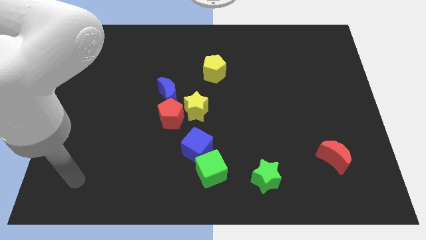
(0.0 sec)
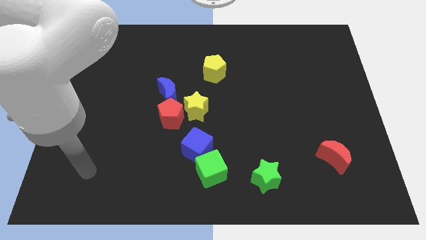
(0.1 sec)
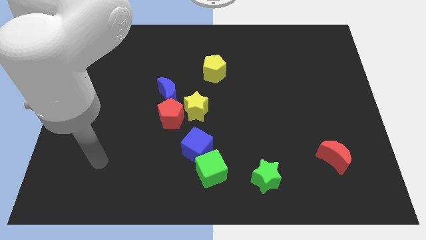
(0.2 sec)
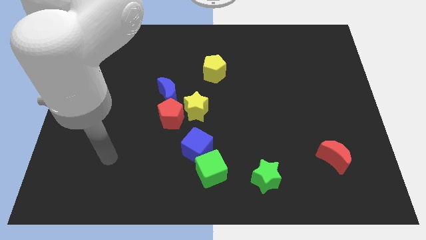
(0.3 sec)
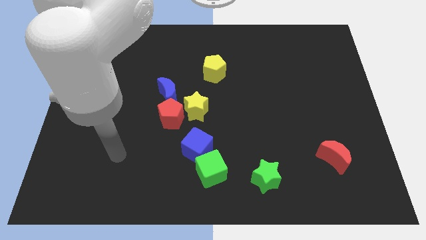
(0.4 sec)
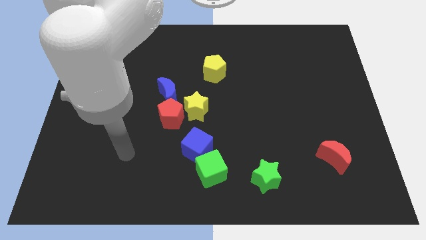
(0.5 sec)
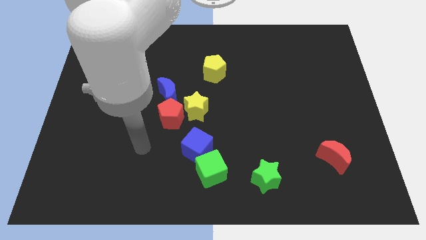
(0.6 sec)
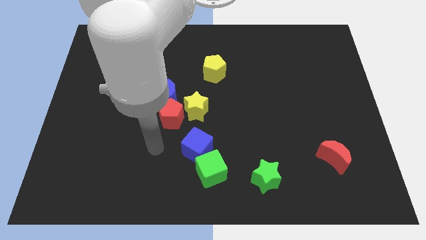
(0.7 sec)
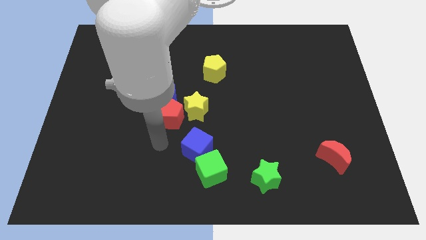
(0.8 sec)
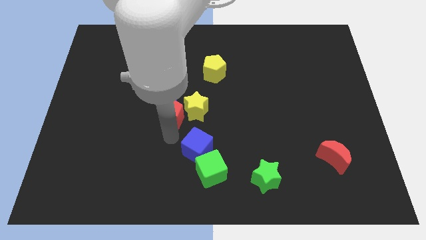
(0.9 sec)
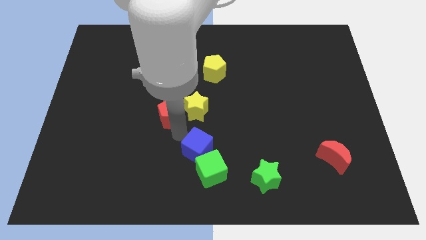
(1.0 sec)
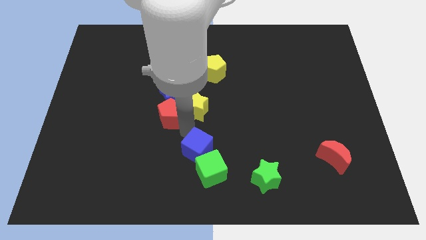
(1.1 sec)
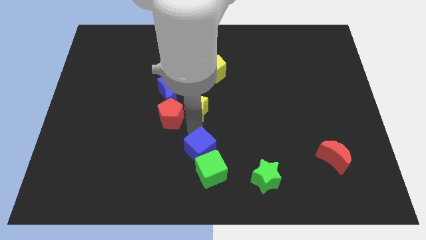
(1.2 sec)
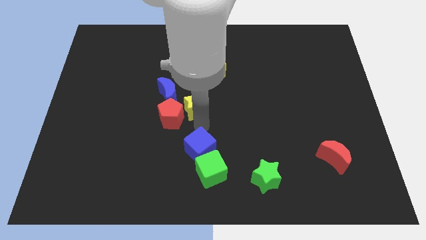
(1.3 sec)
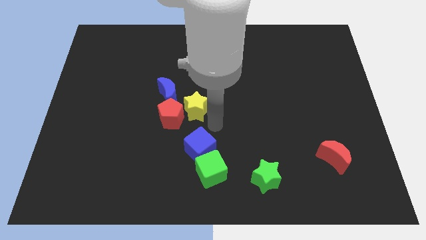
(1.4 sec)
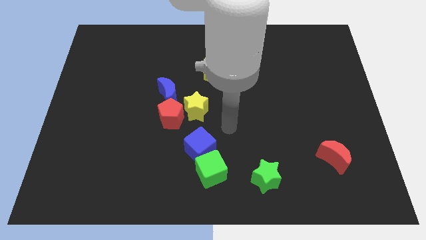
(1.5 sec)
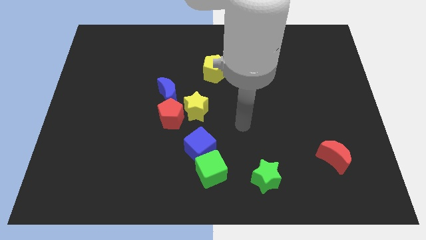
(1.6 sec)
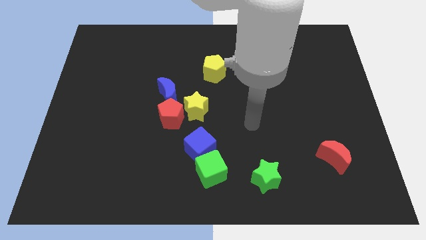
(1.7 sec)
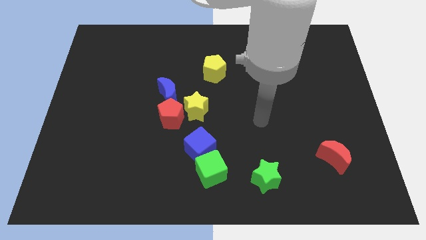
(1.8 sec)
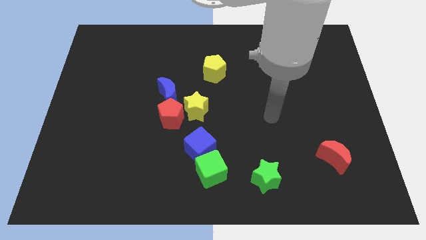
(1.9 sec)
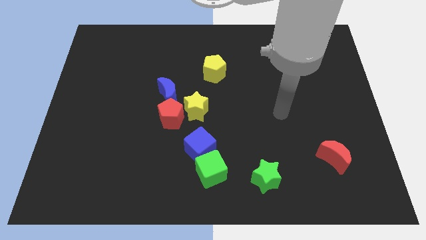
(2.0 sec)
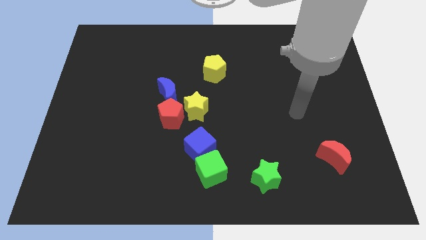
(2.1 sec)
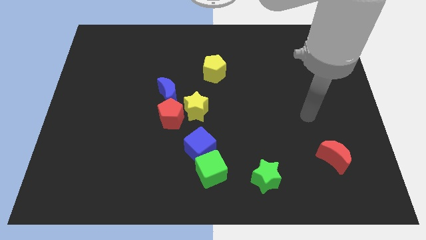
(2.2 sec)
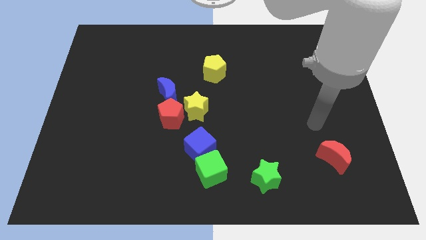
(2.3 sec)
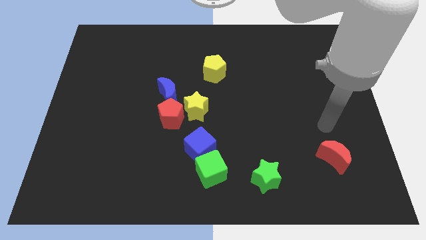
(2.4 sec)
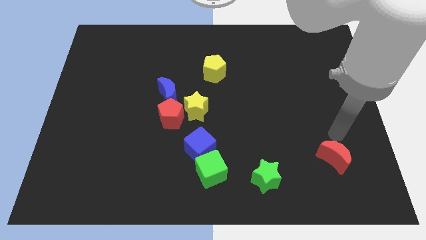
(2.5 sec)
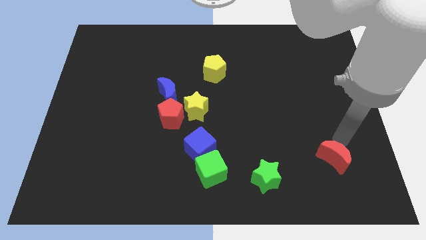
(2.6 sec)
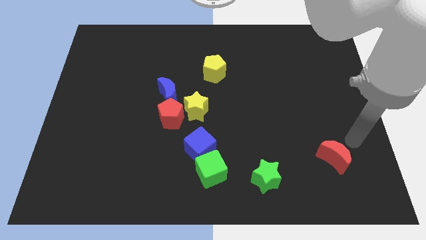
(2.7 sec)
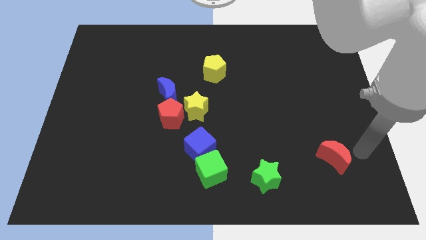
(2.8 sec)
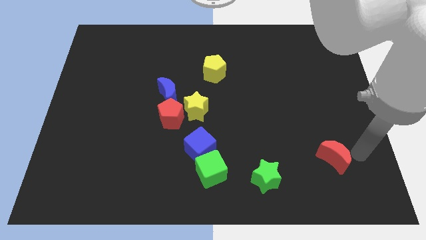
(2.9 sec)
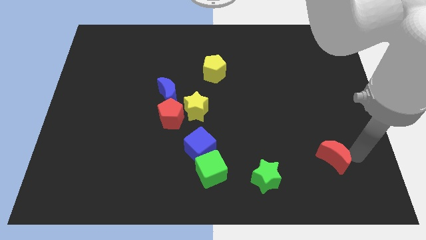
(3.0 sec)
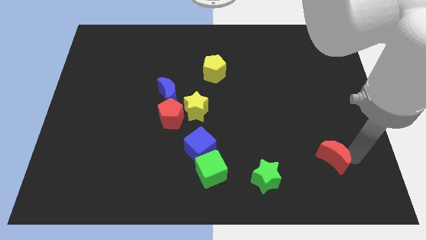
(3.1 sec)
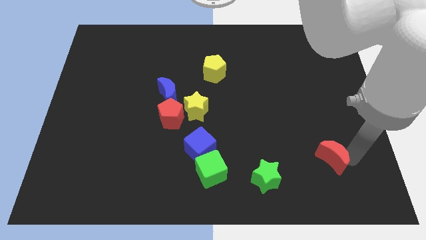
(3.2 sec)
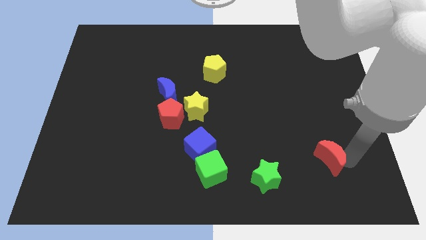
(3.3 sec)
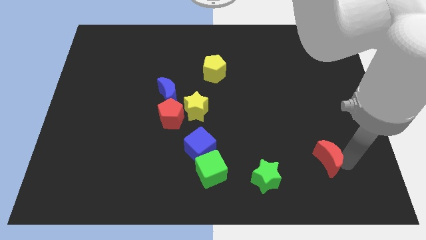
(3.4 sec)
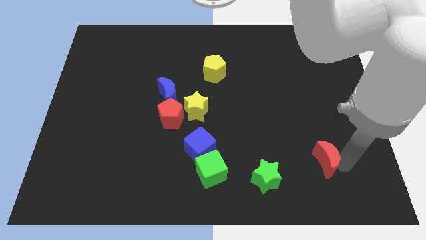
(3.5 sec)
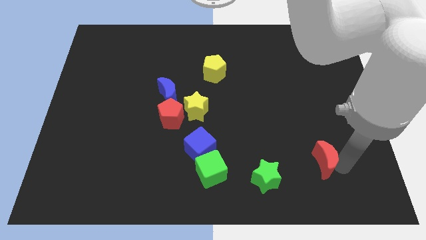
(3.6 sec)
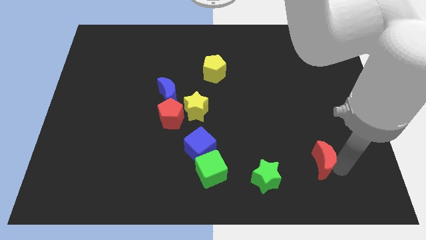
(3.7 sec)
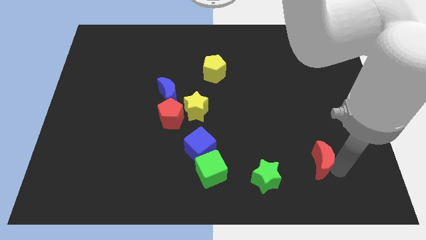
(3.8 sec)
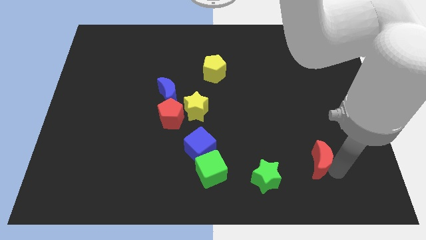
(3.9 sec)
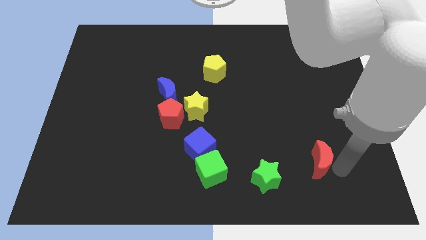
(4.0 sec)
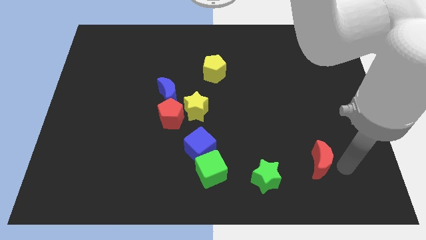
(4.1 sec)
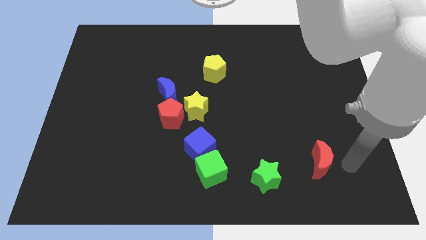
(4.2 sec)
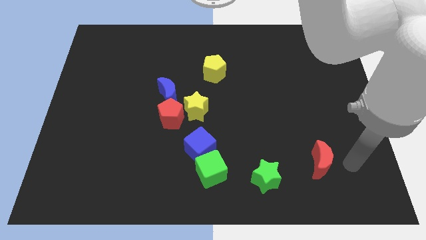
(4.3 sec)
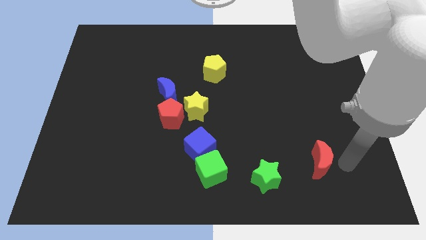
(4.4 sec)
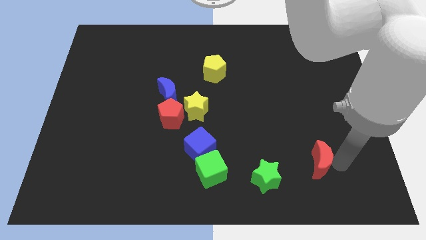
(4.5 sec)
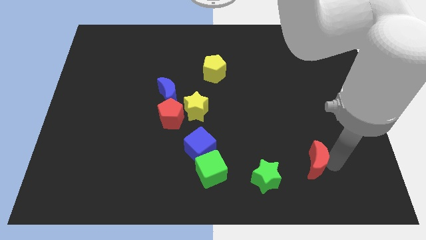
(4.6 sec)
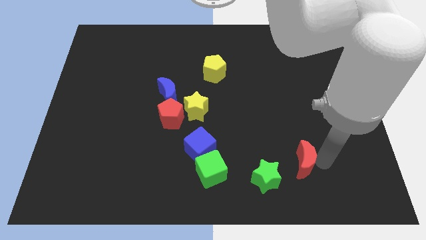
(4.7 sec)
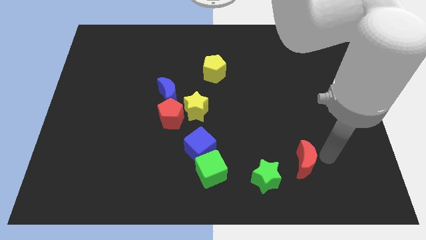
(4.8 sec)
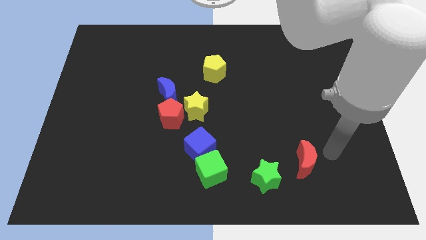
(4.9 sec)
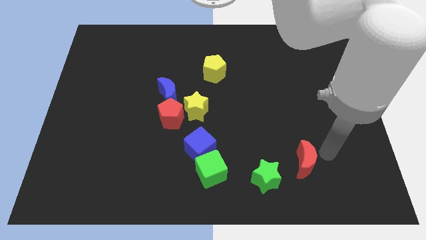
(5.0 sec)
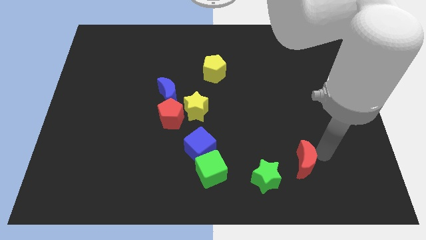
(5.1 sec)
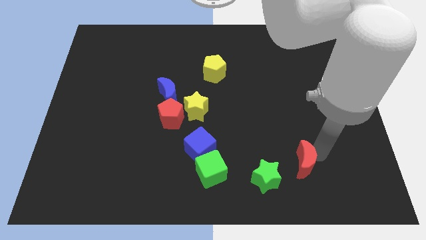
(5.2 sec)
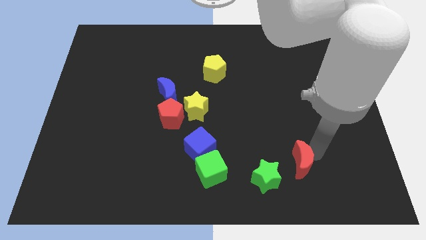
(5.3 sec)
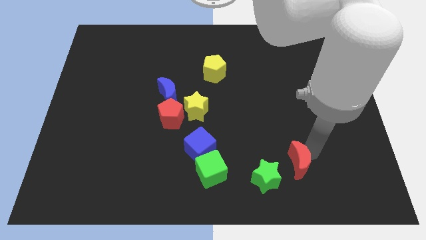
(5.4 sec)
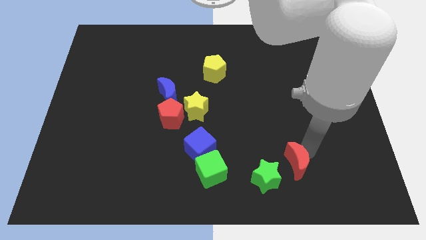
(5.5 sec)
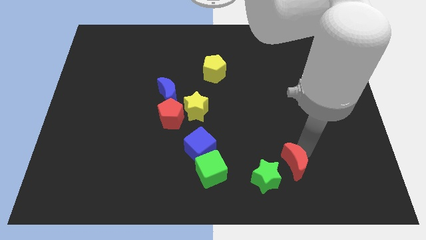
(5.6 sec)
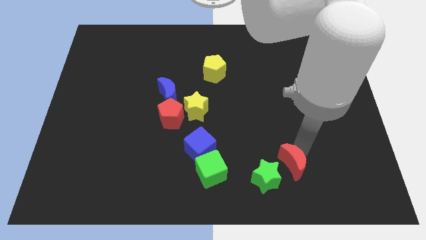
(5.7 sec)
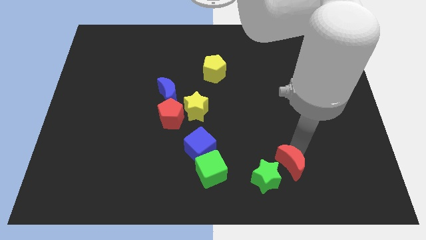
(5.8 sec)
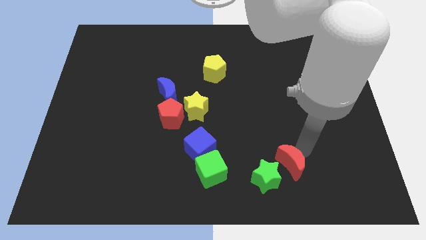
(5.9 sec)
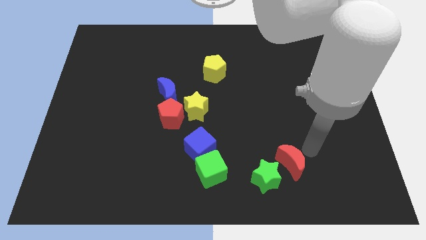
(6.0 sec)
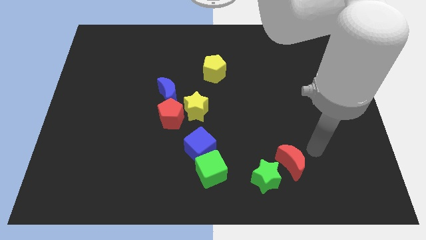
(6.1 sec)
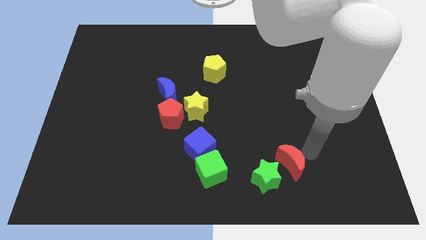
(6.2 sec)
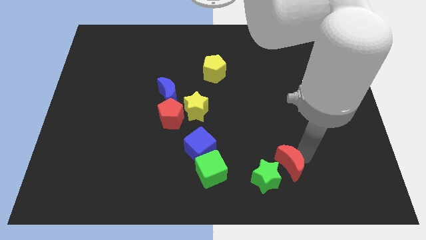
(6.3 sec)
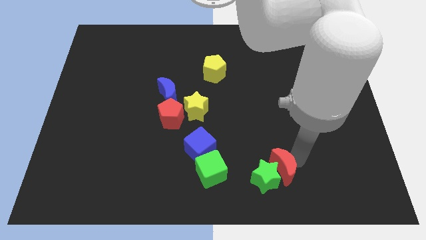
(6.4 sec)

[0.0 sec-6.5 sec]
slide the red moon close to the green star
